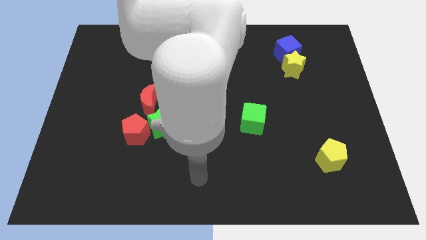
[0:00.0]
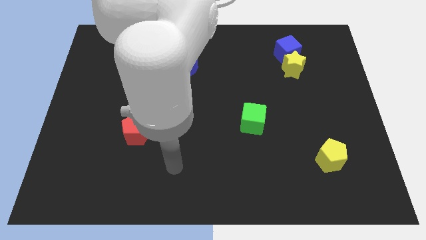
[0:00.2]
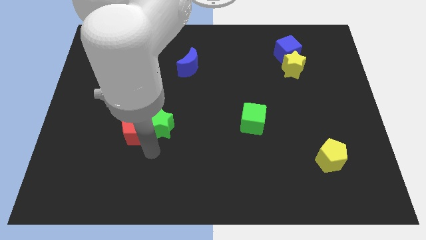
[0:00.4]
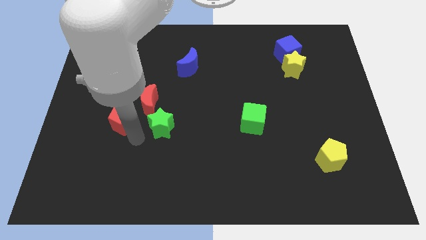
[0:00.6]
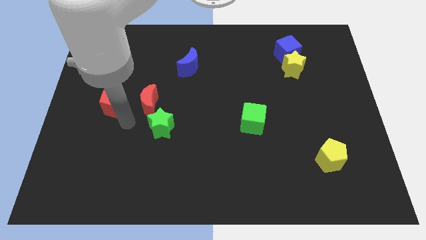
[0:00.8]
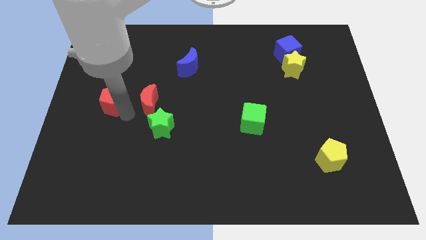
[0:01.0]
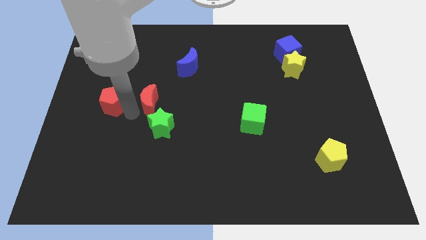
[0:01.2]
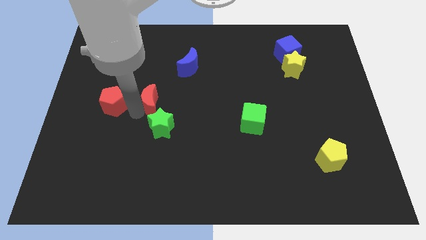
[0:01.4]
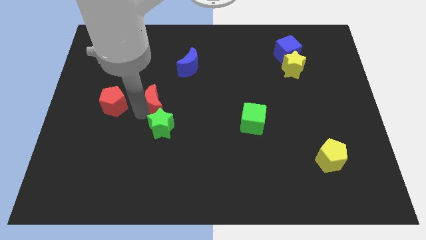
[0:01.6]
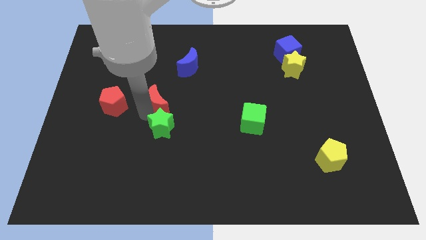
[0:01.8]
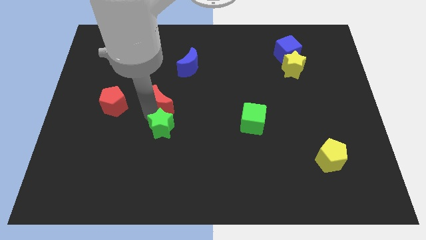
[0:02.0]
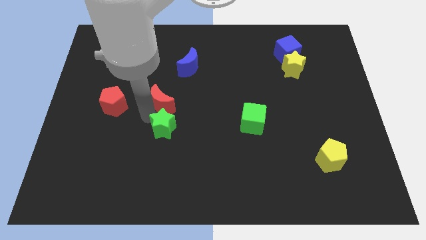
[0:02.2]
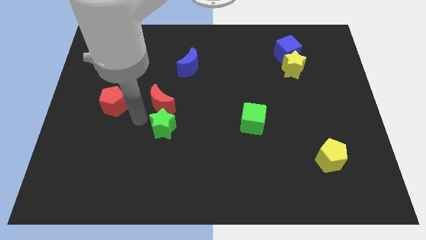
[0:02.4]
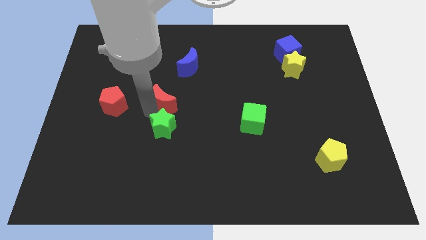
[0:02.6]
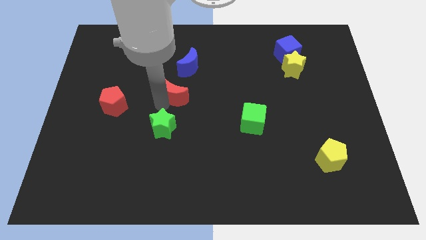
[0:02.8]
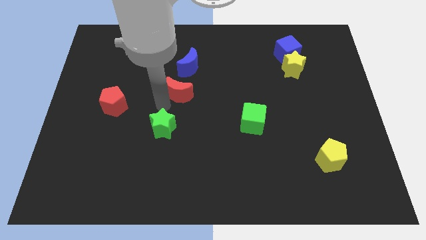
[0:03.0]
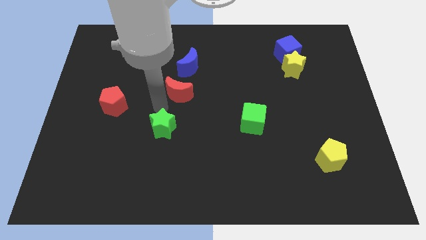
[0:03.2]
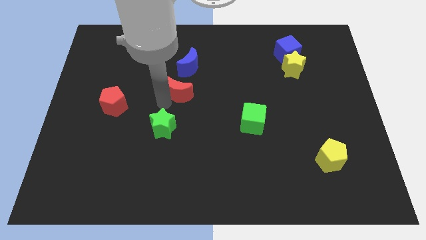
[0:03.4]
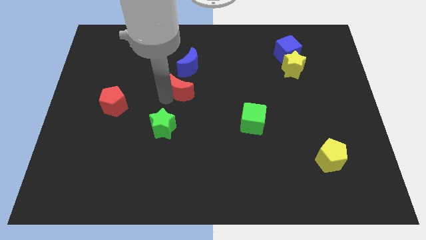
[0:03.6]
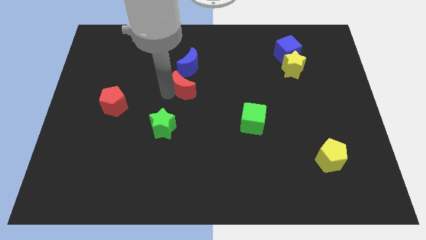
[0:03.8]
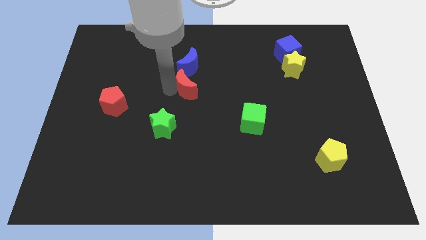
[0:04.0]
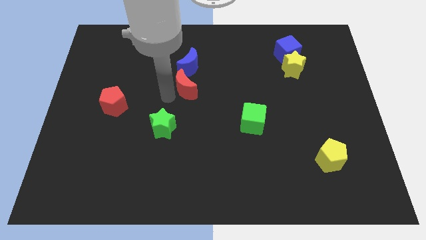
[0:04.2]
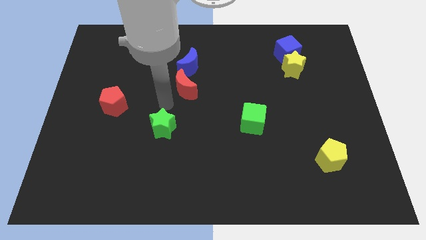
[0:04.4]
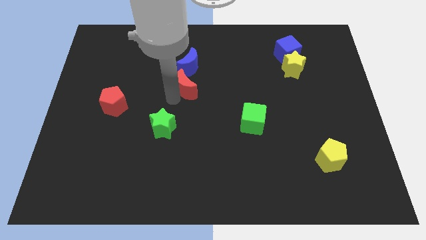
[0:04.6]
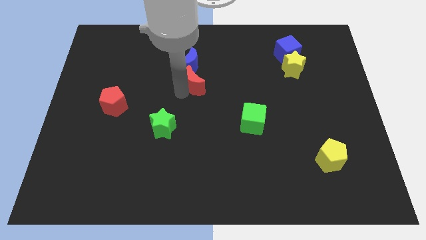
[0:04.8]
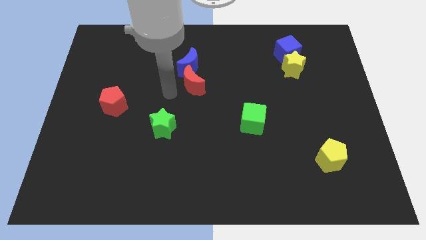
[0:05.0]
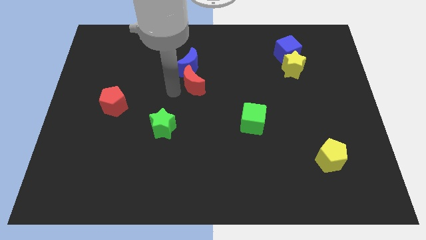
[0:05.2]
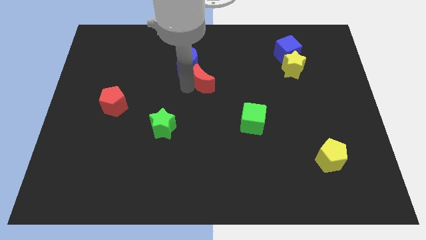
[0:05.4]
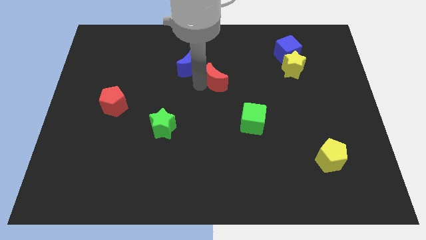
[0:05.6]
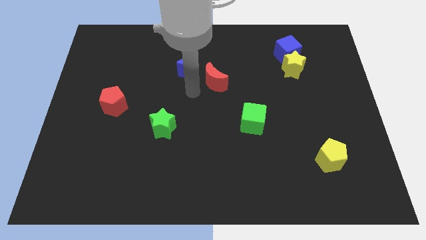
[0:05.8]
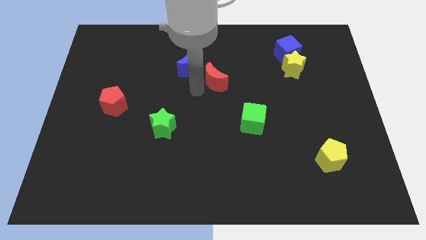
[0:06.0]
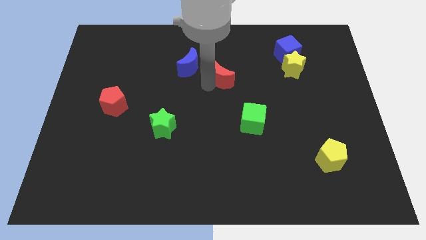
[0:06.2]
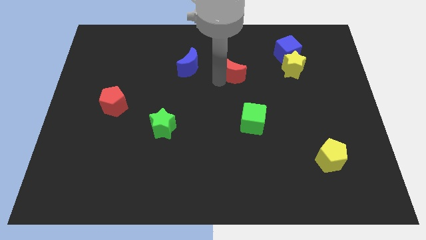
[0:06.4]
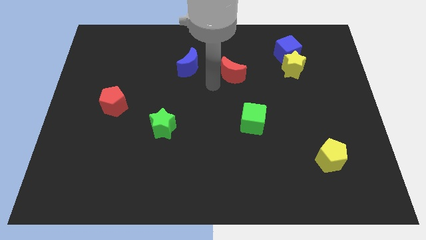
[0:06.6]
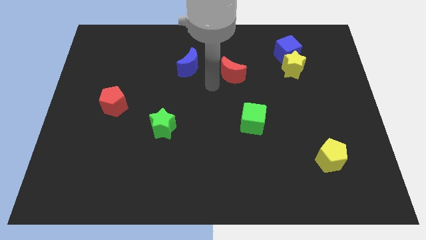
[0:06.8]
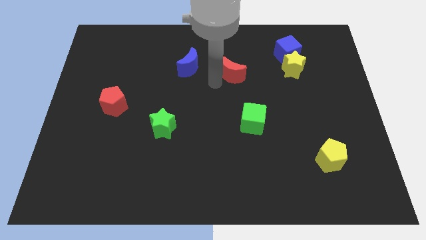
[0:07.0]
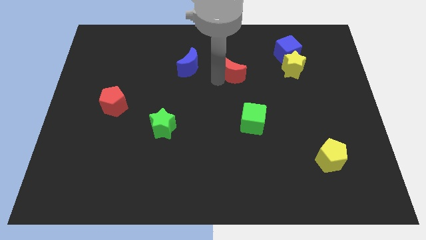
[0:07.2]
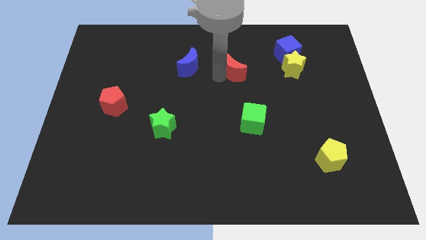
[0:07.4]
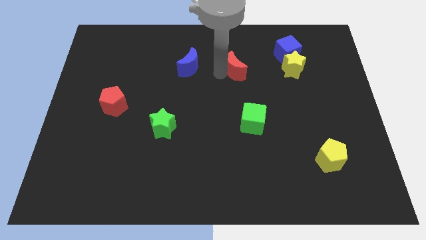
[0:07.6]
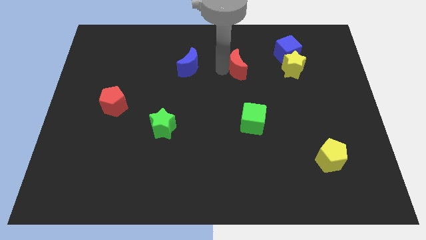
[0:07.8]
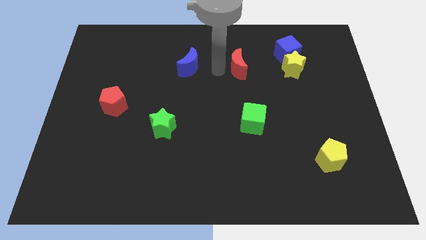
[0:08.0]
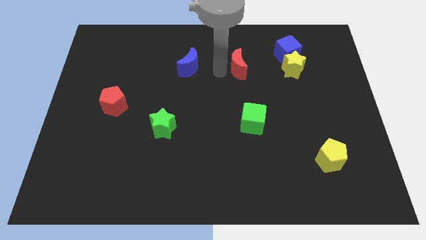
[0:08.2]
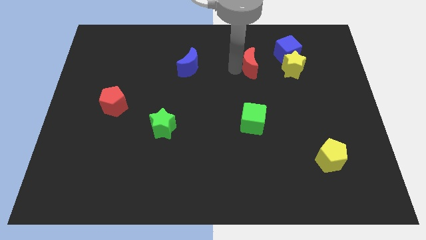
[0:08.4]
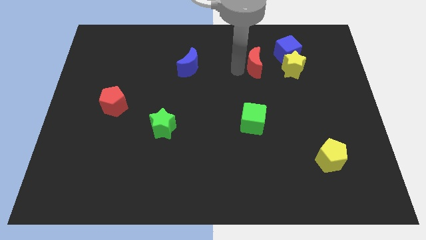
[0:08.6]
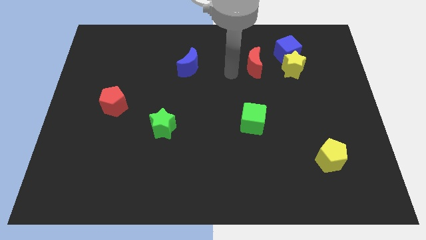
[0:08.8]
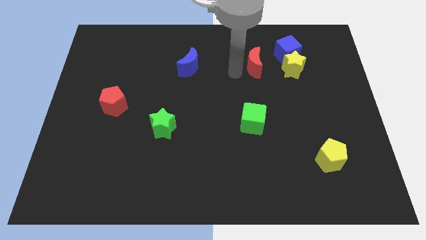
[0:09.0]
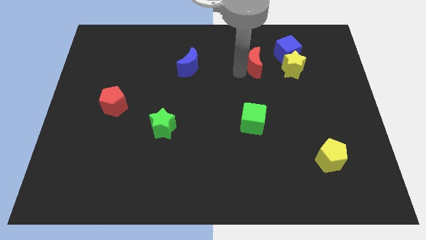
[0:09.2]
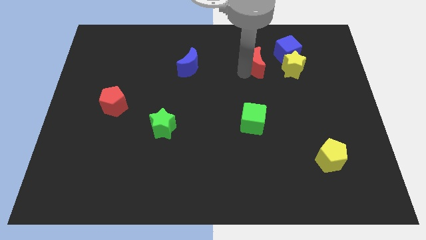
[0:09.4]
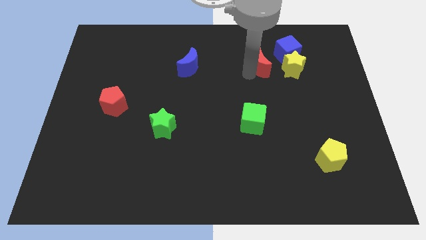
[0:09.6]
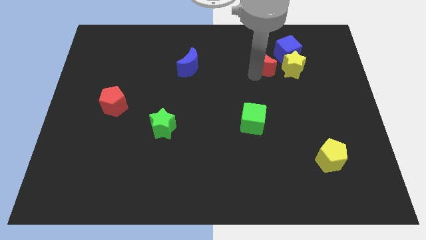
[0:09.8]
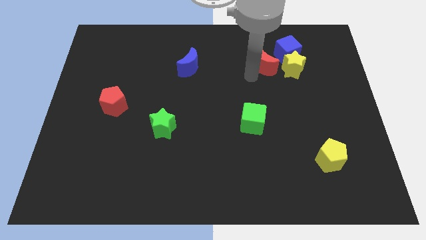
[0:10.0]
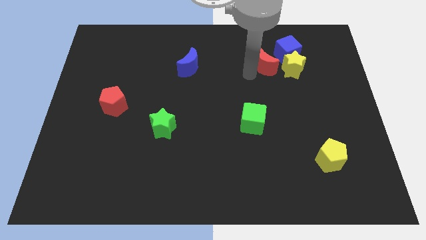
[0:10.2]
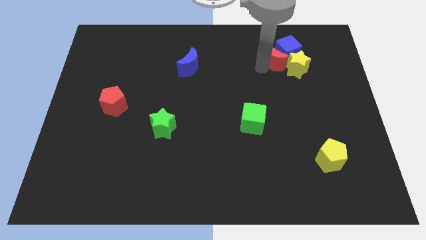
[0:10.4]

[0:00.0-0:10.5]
put the red moon towards the blue cube

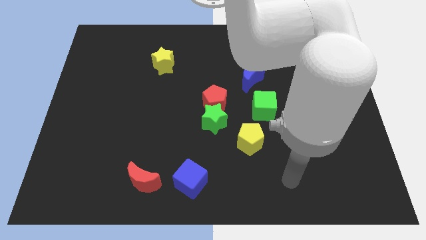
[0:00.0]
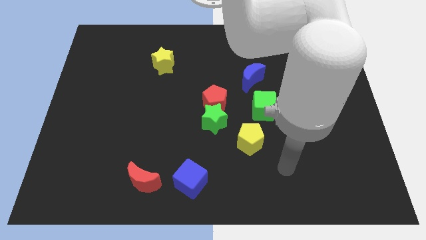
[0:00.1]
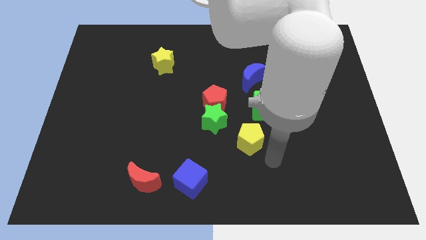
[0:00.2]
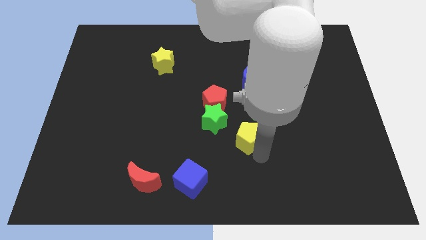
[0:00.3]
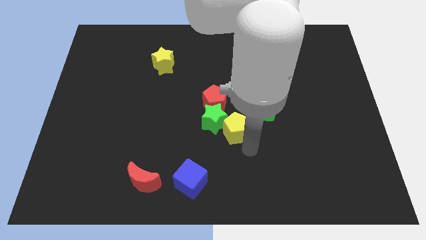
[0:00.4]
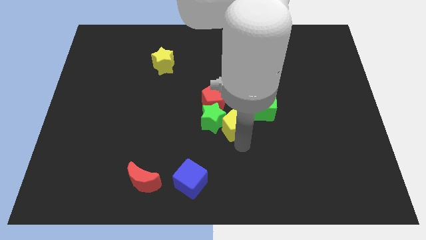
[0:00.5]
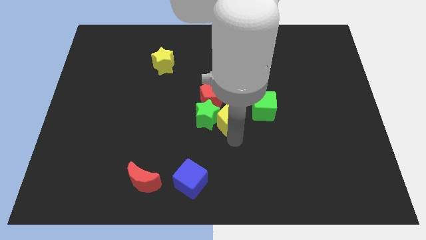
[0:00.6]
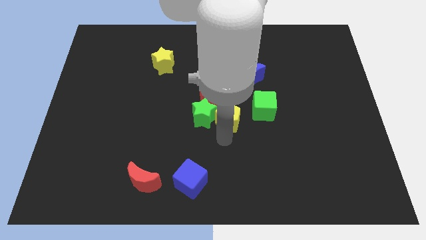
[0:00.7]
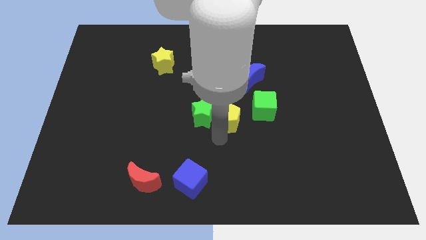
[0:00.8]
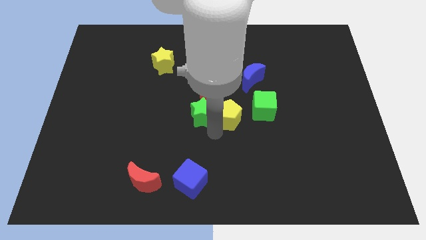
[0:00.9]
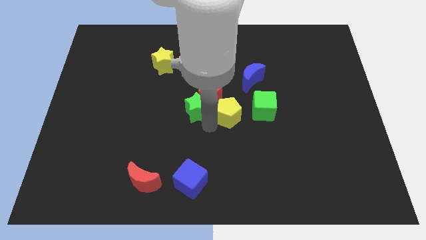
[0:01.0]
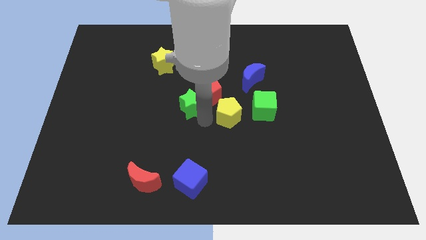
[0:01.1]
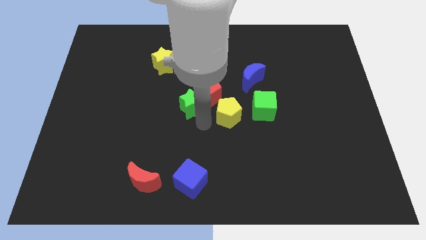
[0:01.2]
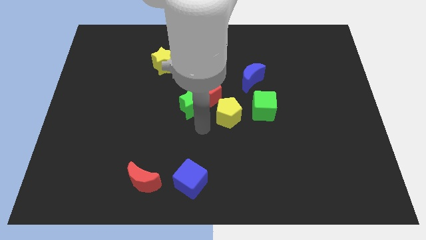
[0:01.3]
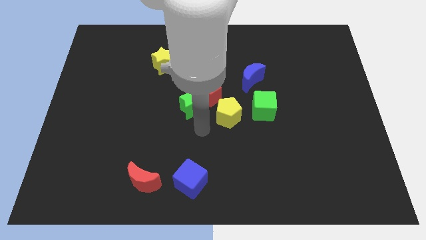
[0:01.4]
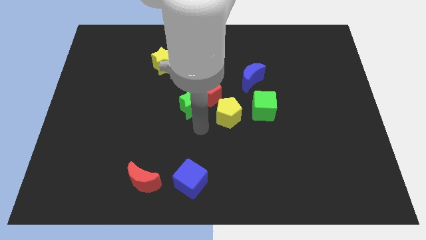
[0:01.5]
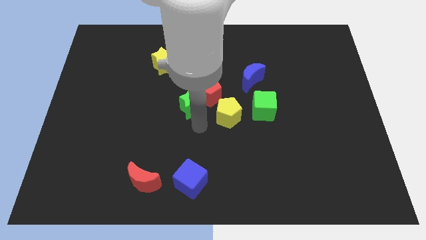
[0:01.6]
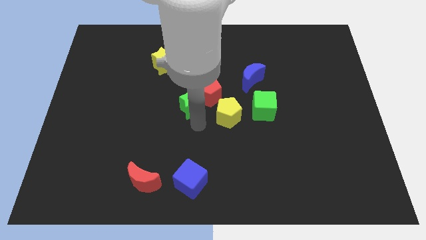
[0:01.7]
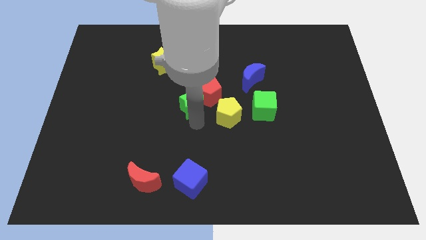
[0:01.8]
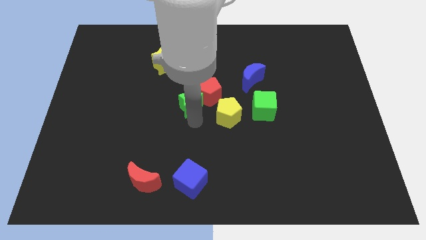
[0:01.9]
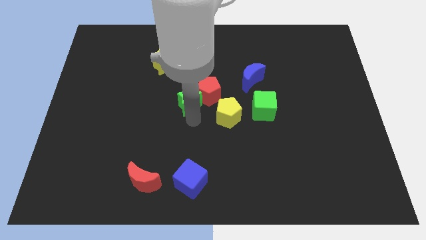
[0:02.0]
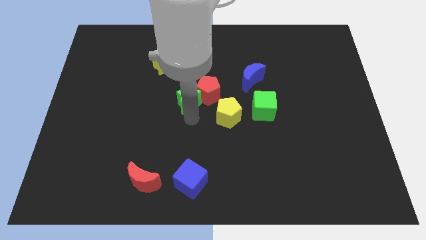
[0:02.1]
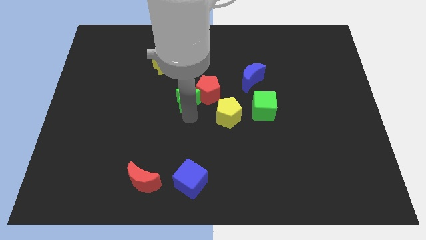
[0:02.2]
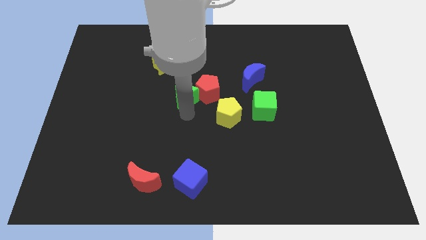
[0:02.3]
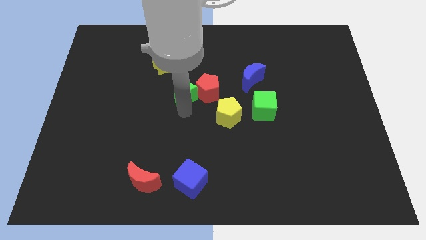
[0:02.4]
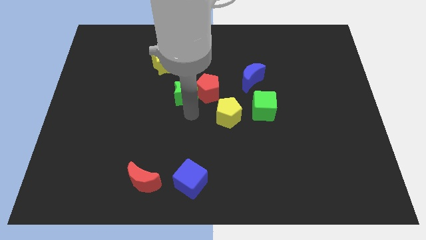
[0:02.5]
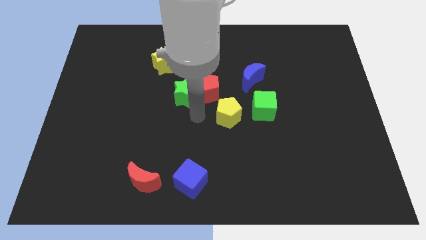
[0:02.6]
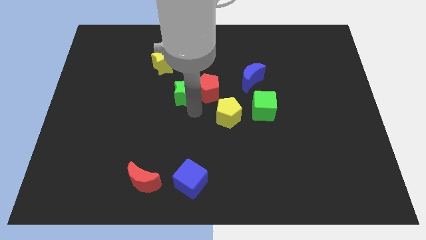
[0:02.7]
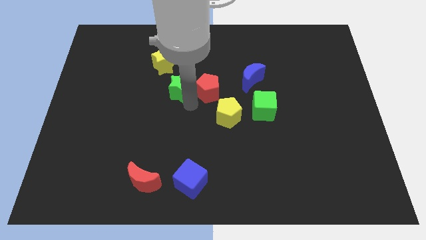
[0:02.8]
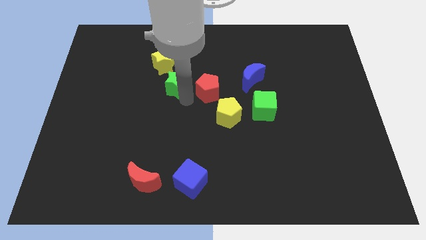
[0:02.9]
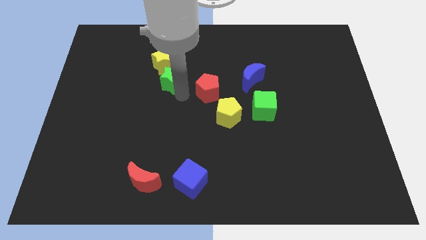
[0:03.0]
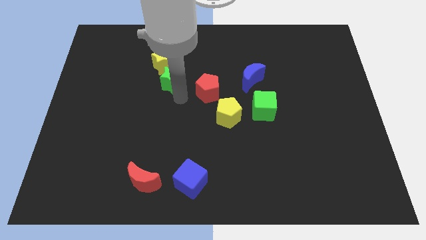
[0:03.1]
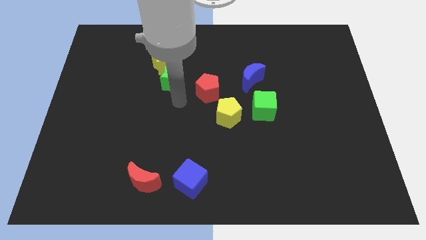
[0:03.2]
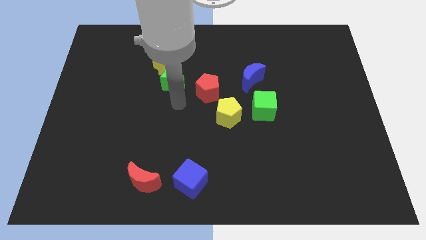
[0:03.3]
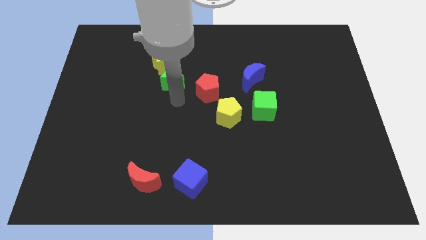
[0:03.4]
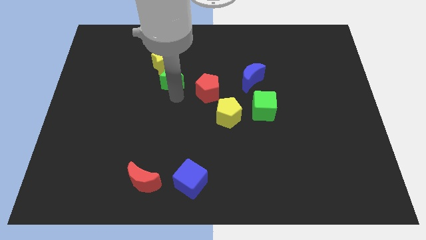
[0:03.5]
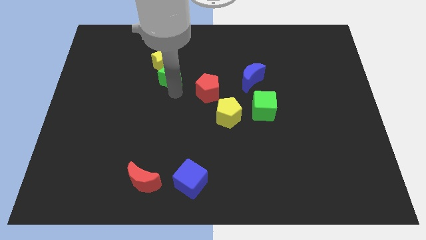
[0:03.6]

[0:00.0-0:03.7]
slide the green star towards the yellow star
